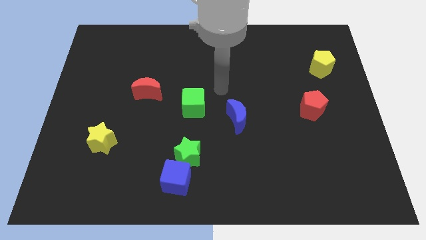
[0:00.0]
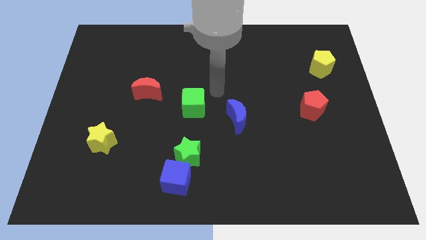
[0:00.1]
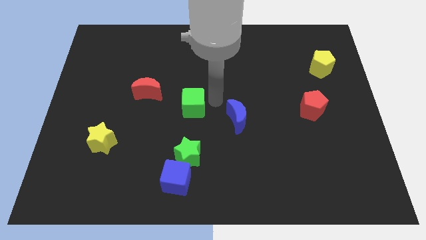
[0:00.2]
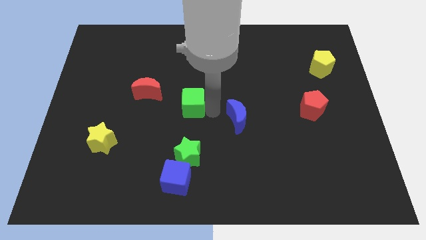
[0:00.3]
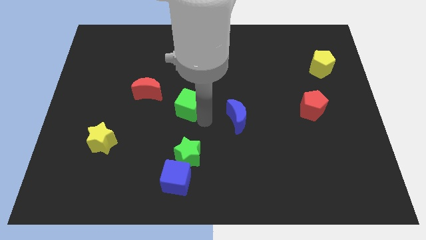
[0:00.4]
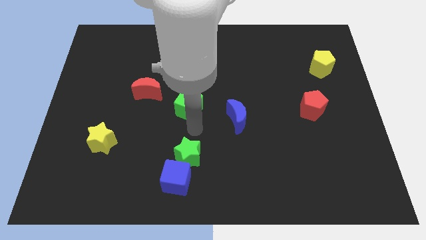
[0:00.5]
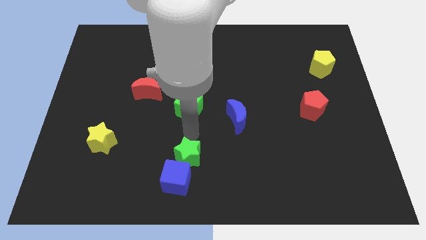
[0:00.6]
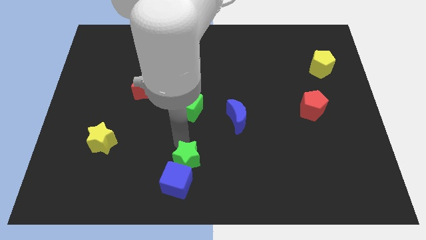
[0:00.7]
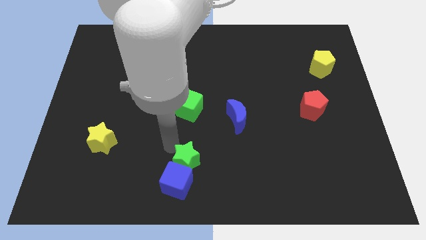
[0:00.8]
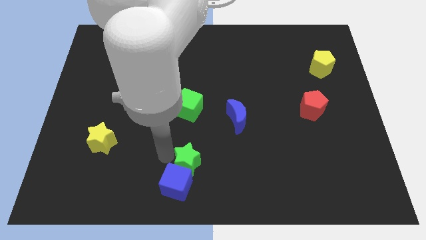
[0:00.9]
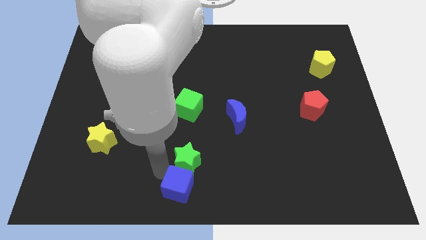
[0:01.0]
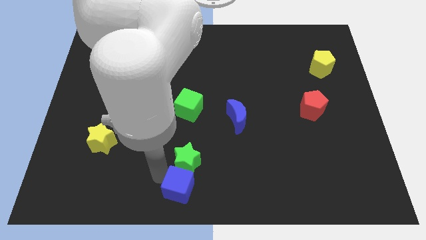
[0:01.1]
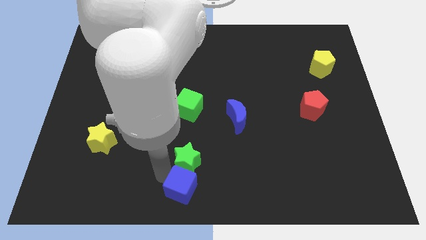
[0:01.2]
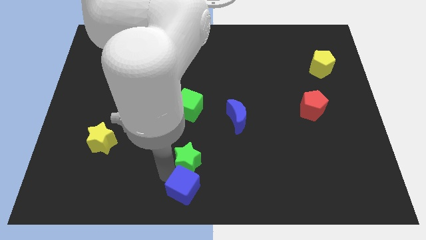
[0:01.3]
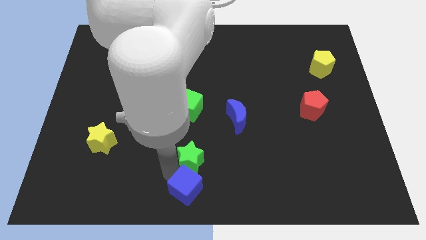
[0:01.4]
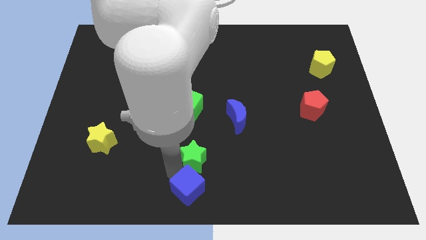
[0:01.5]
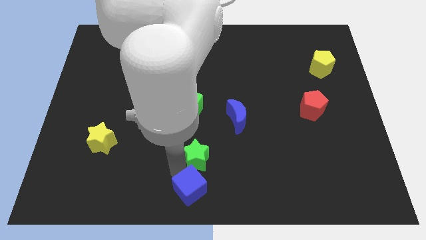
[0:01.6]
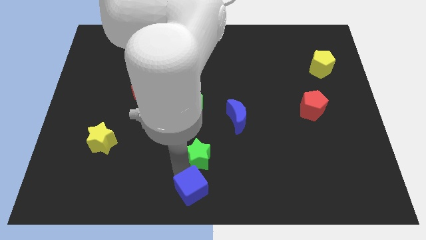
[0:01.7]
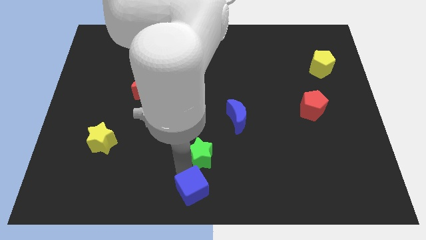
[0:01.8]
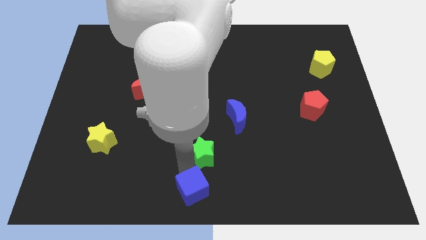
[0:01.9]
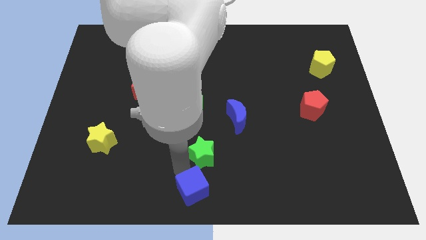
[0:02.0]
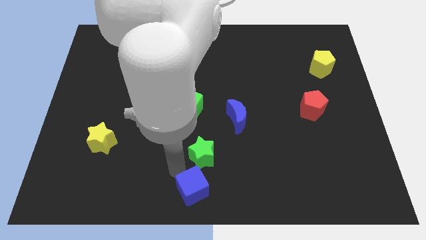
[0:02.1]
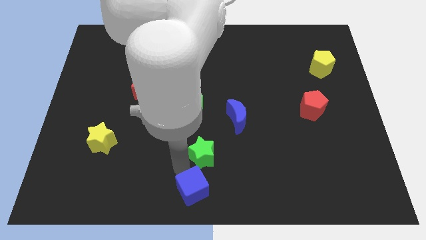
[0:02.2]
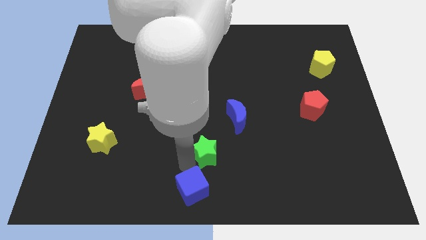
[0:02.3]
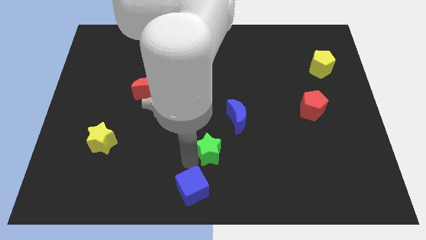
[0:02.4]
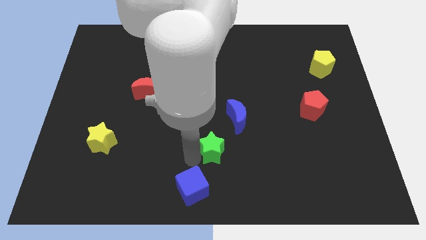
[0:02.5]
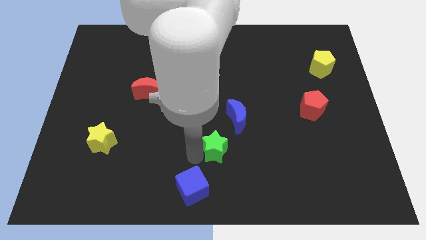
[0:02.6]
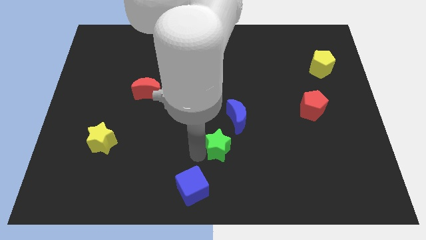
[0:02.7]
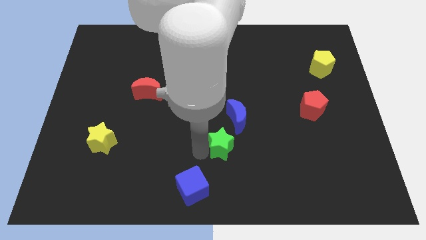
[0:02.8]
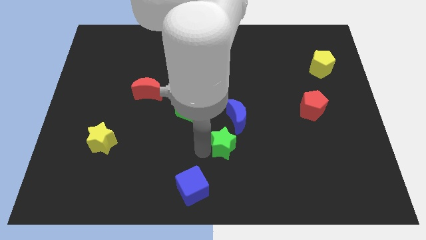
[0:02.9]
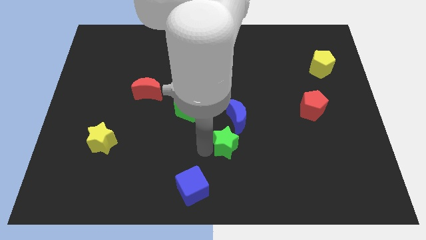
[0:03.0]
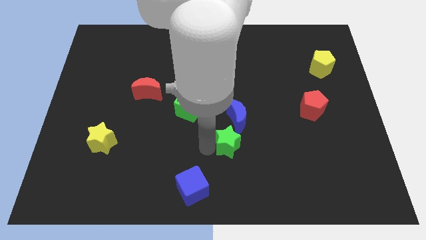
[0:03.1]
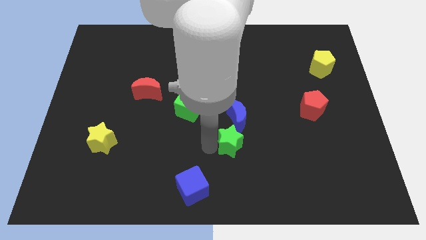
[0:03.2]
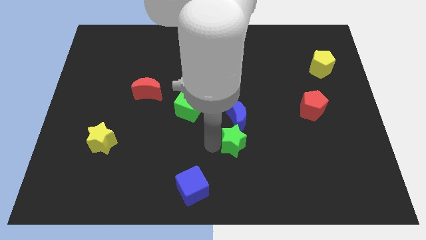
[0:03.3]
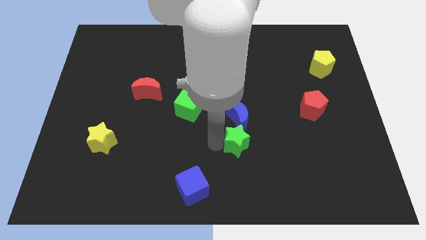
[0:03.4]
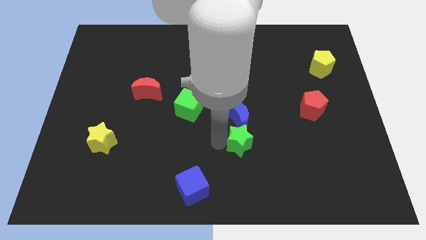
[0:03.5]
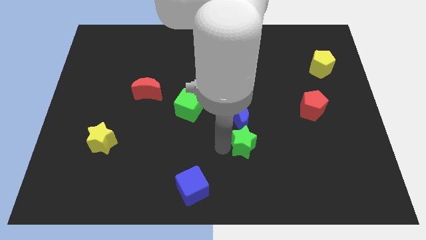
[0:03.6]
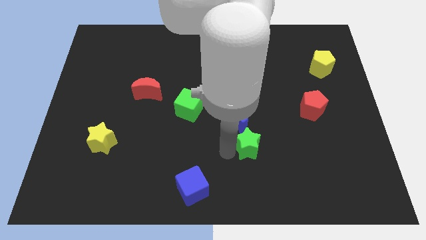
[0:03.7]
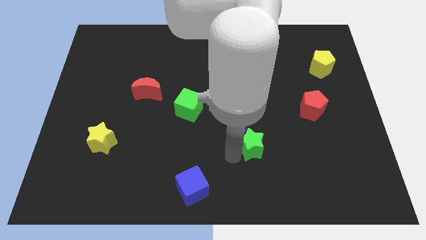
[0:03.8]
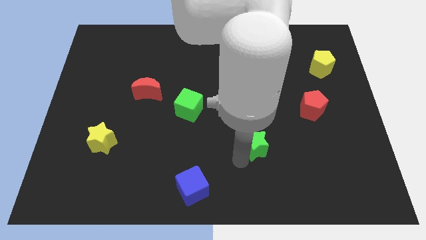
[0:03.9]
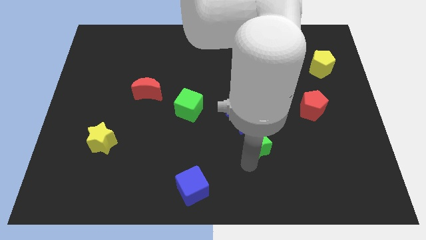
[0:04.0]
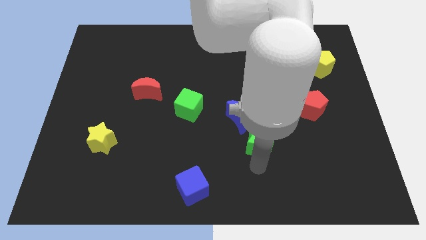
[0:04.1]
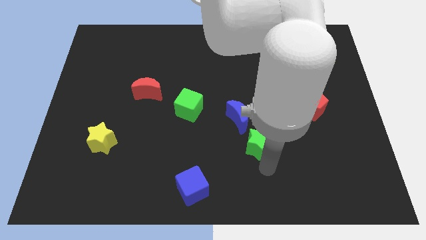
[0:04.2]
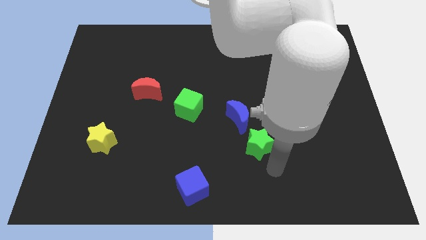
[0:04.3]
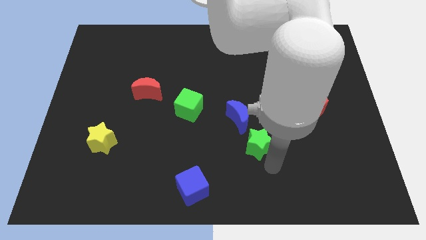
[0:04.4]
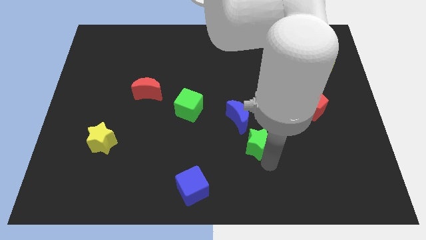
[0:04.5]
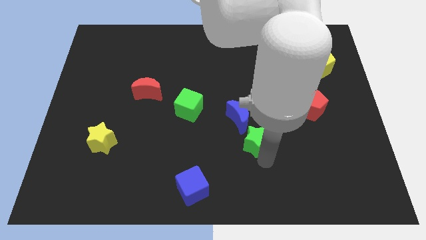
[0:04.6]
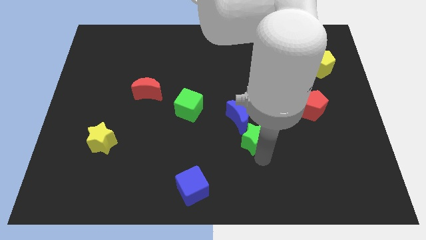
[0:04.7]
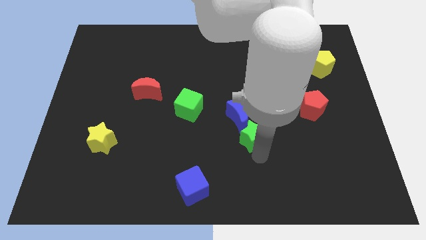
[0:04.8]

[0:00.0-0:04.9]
slide the green star towards the blue moon

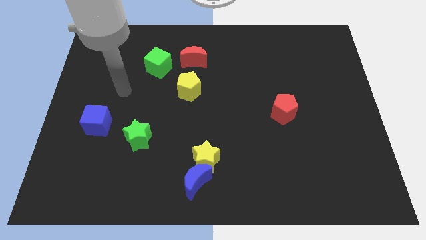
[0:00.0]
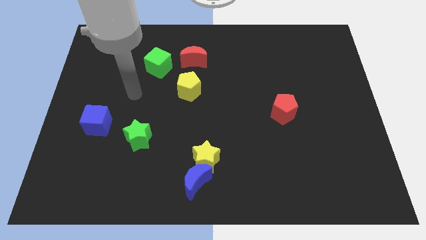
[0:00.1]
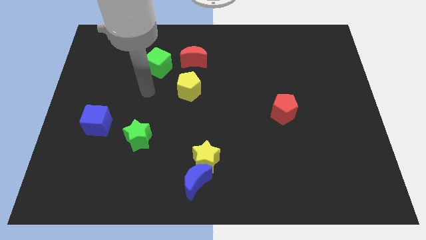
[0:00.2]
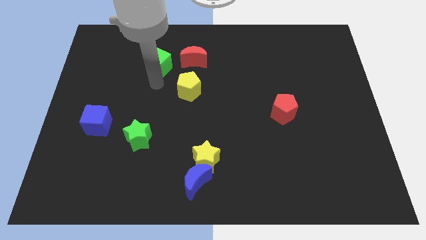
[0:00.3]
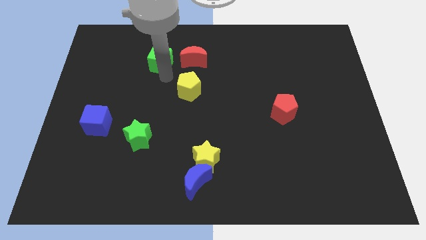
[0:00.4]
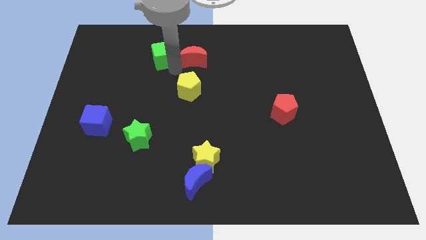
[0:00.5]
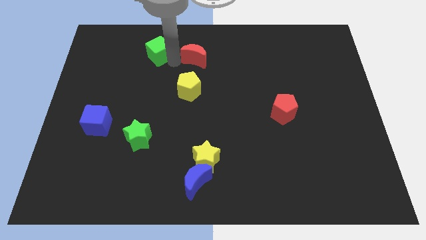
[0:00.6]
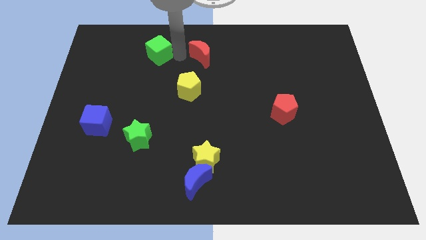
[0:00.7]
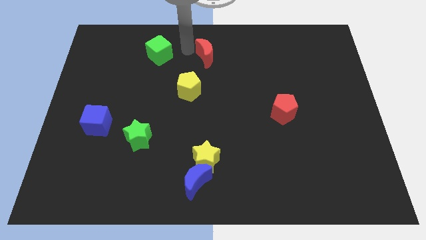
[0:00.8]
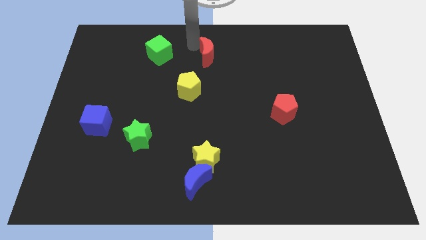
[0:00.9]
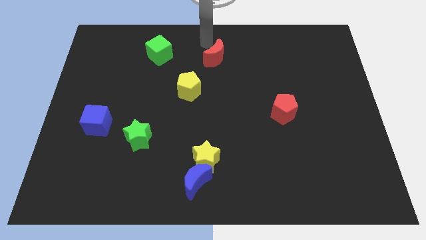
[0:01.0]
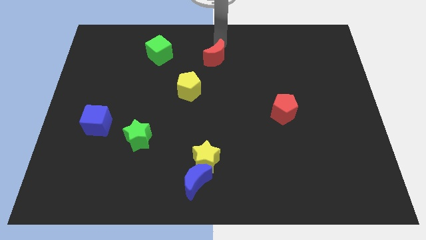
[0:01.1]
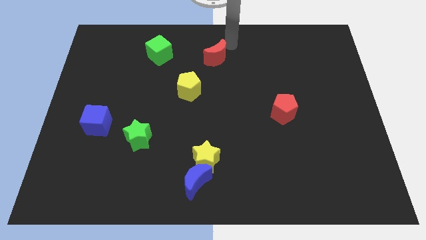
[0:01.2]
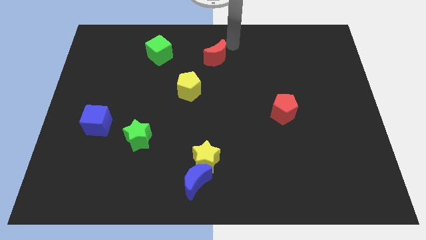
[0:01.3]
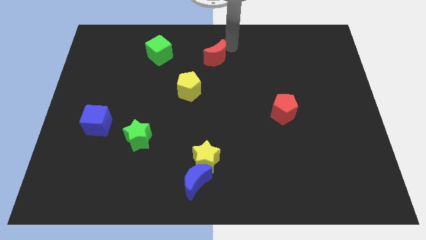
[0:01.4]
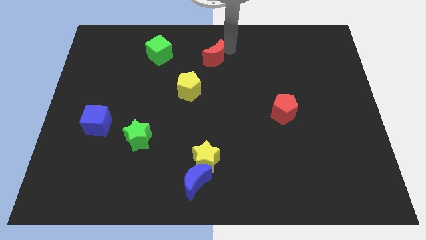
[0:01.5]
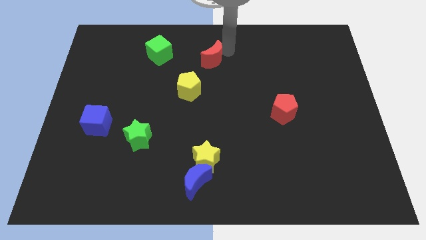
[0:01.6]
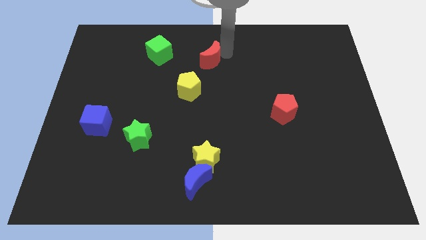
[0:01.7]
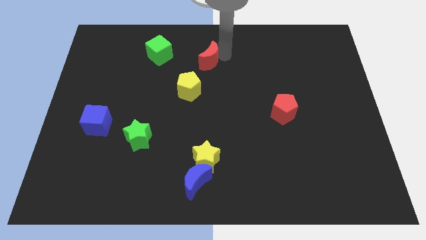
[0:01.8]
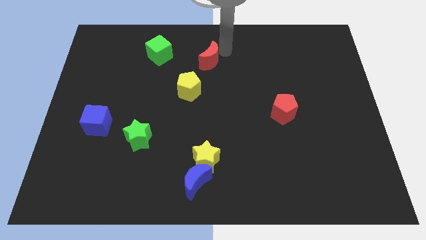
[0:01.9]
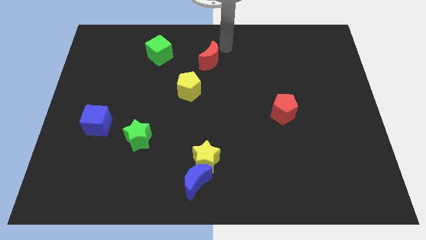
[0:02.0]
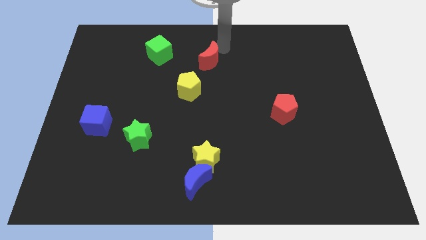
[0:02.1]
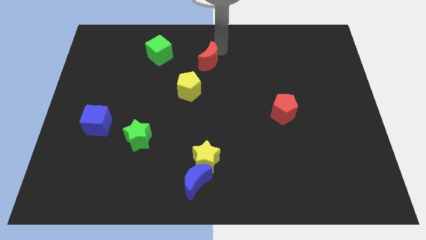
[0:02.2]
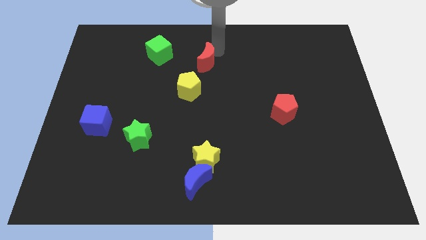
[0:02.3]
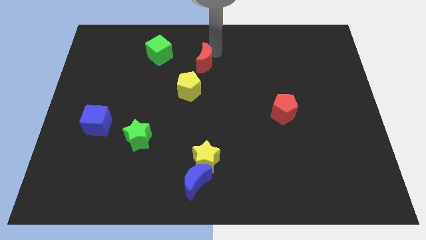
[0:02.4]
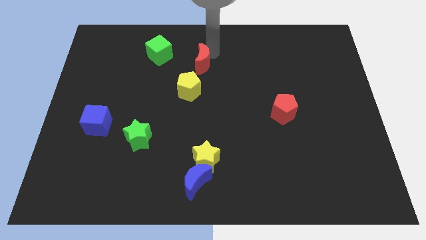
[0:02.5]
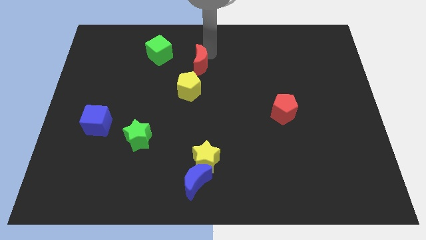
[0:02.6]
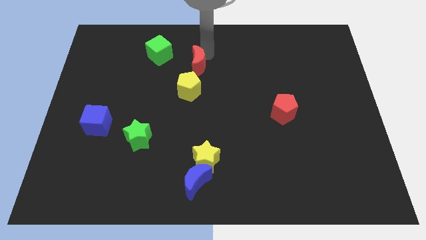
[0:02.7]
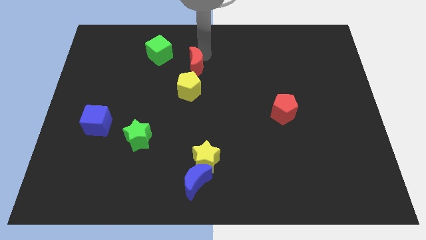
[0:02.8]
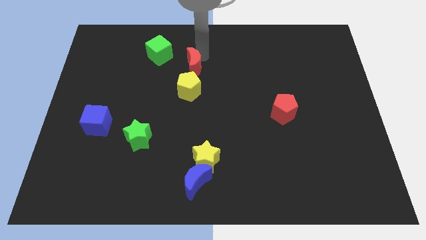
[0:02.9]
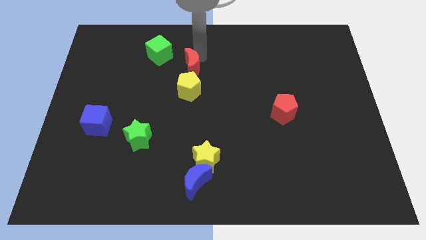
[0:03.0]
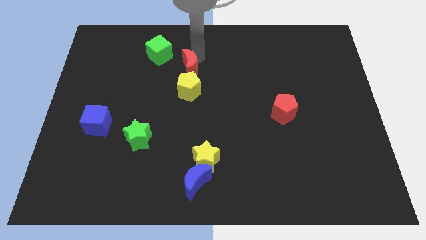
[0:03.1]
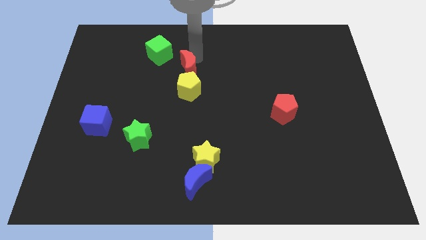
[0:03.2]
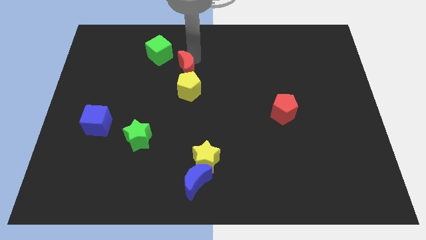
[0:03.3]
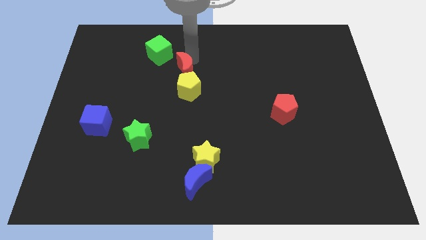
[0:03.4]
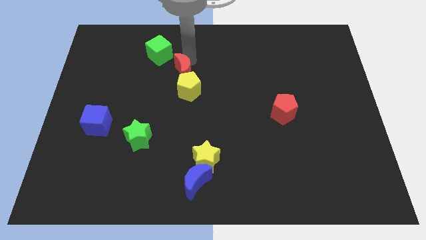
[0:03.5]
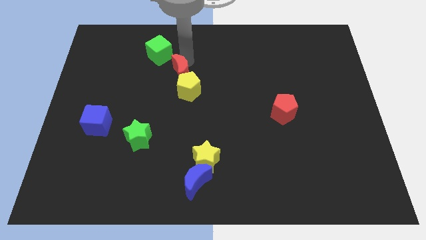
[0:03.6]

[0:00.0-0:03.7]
move the red moon close to the yellow pentagon
